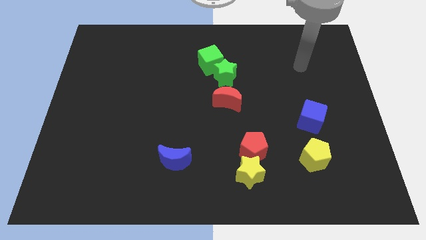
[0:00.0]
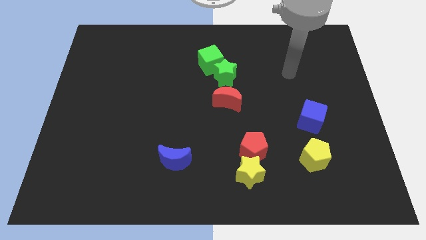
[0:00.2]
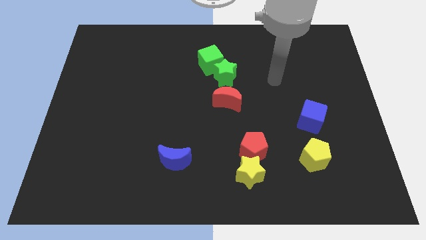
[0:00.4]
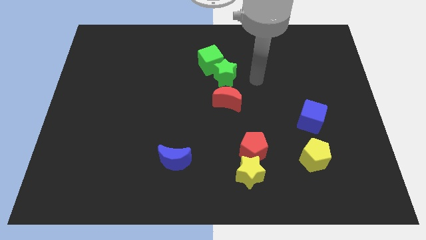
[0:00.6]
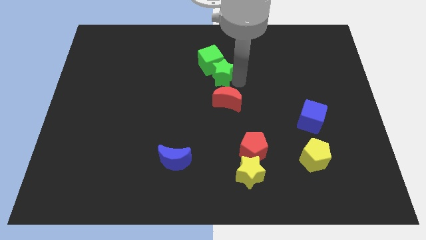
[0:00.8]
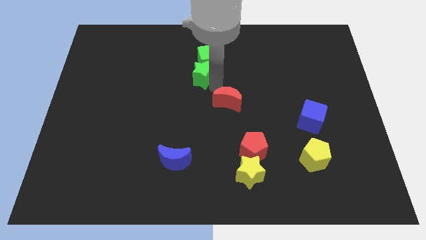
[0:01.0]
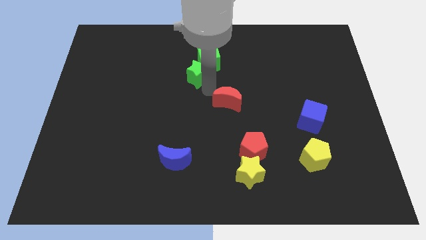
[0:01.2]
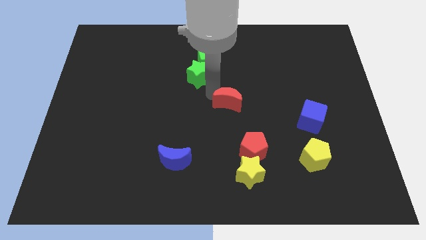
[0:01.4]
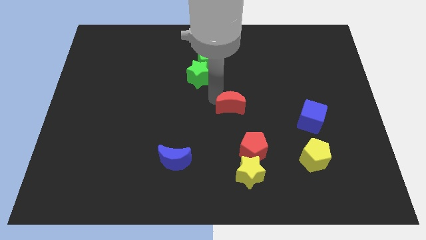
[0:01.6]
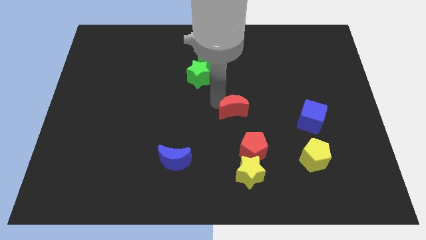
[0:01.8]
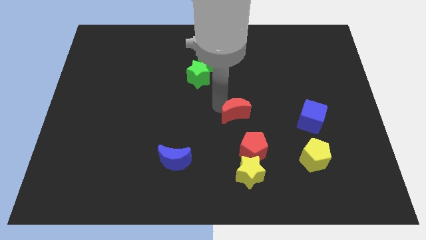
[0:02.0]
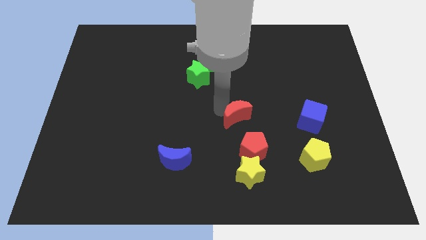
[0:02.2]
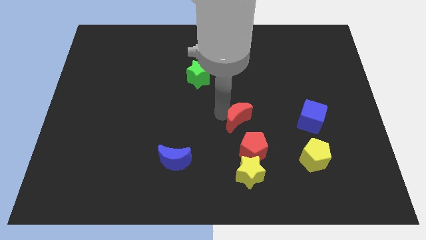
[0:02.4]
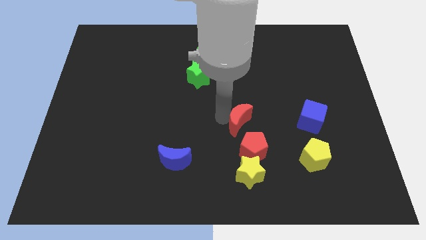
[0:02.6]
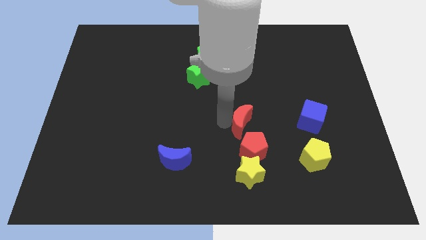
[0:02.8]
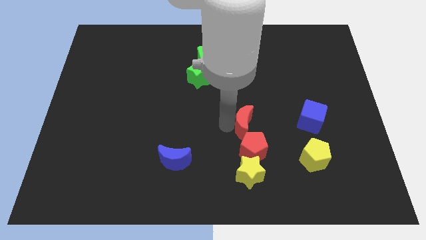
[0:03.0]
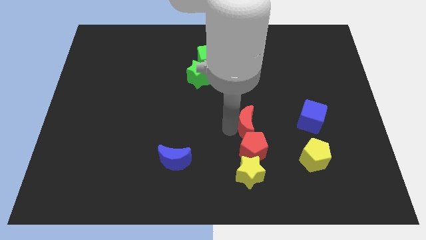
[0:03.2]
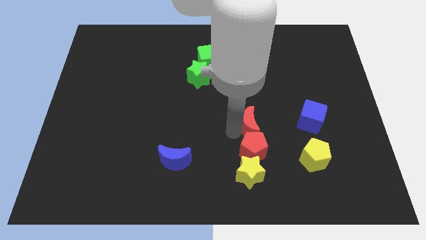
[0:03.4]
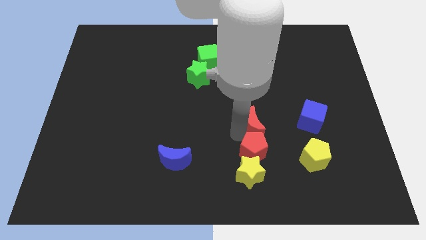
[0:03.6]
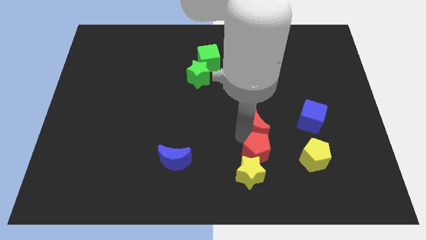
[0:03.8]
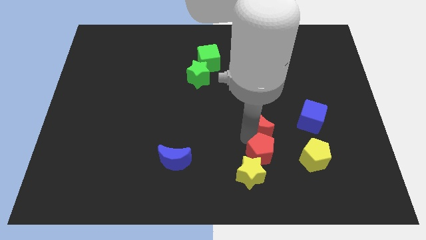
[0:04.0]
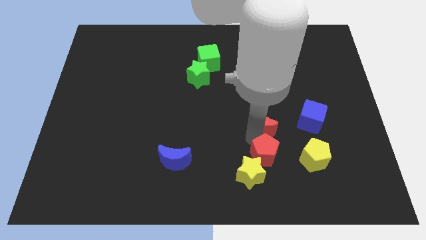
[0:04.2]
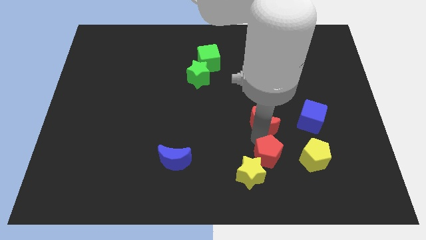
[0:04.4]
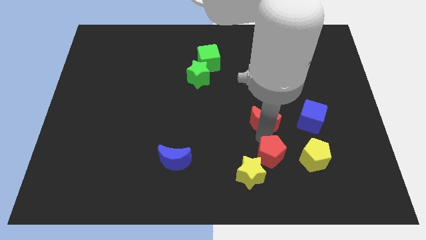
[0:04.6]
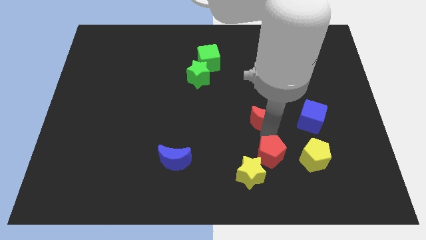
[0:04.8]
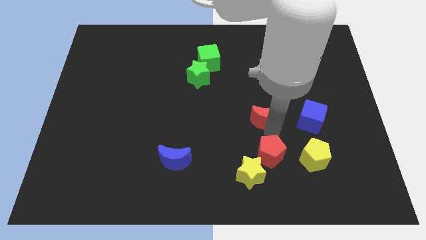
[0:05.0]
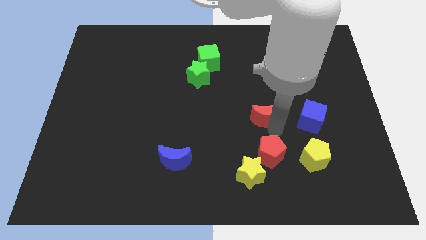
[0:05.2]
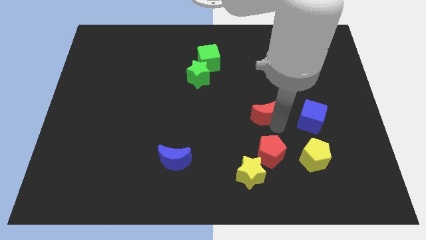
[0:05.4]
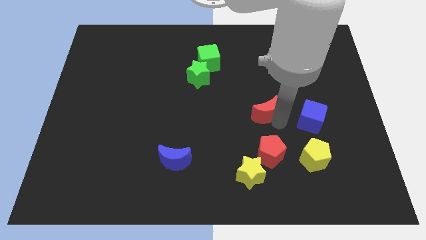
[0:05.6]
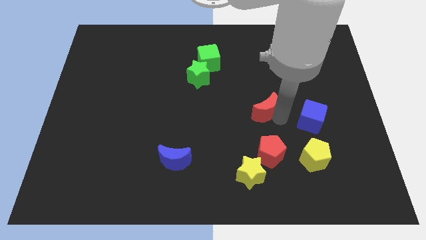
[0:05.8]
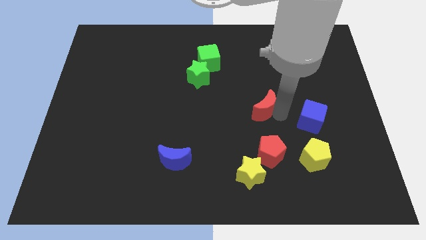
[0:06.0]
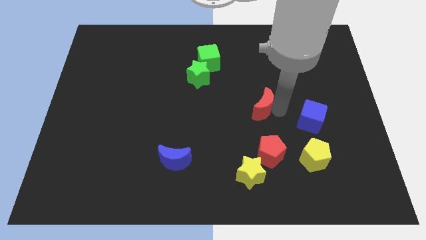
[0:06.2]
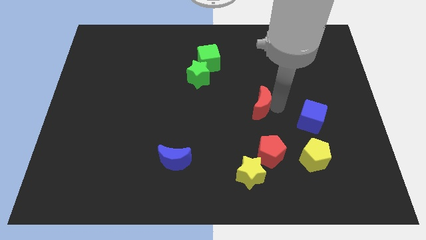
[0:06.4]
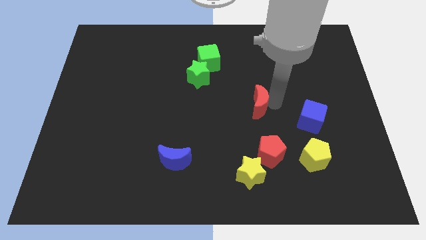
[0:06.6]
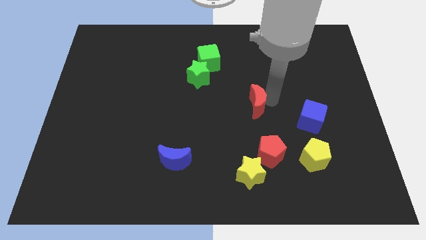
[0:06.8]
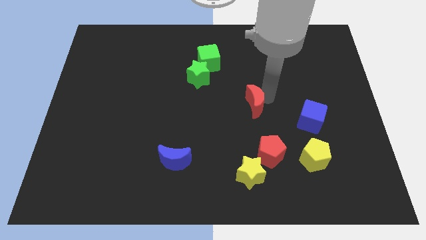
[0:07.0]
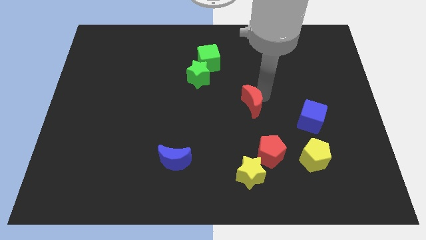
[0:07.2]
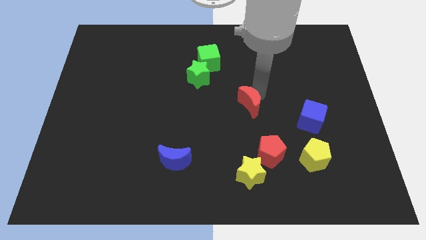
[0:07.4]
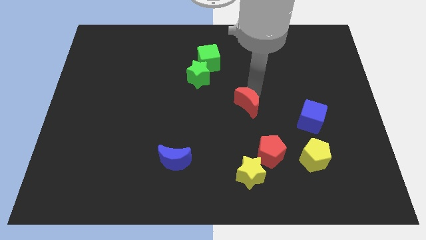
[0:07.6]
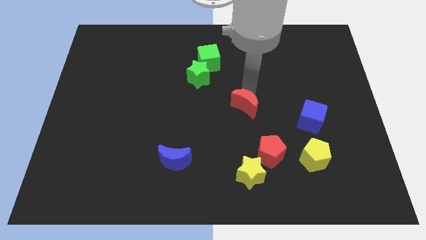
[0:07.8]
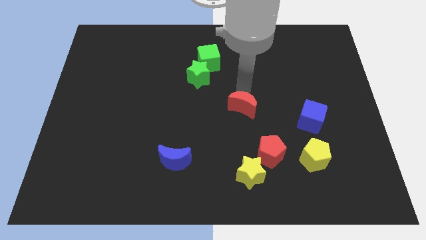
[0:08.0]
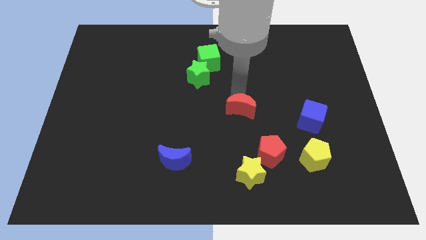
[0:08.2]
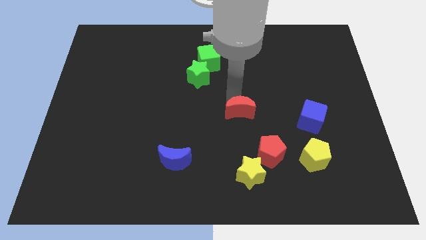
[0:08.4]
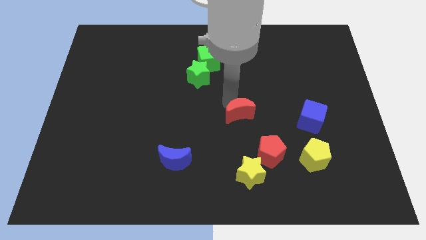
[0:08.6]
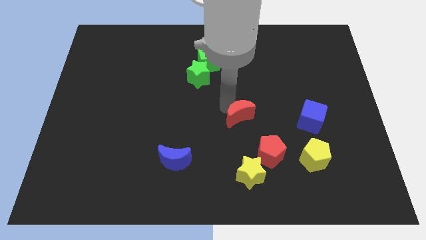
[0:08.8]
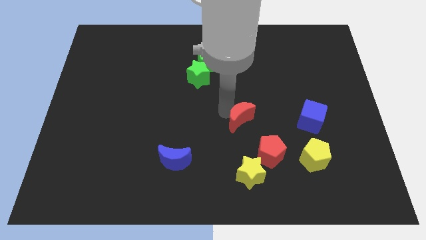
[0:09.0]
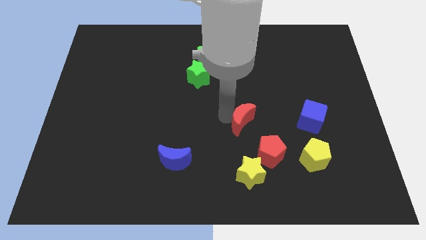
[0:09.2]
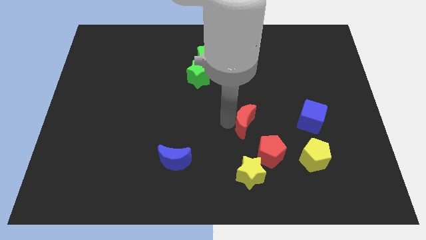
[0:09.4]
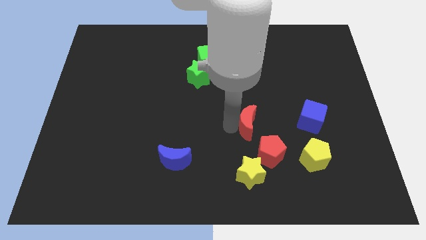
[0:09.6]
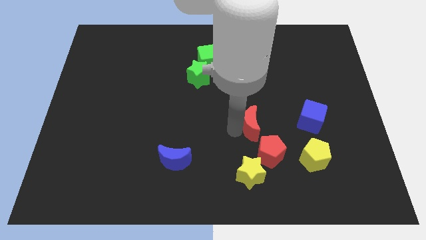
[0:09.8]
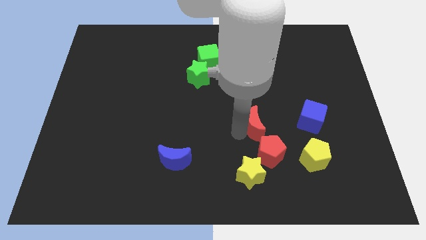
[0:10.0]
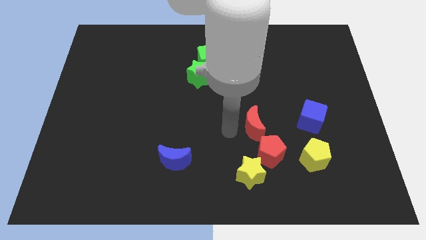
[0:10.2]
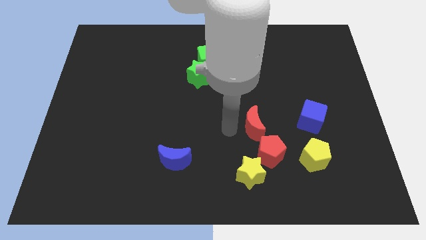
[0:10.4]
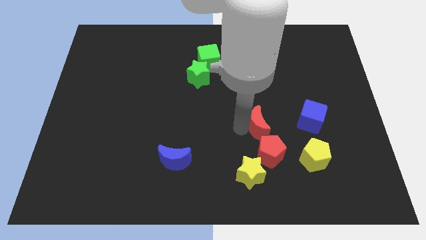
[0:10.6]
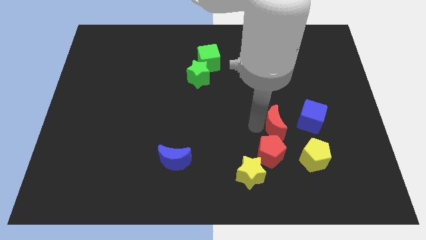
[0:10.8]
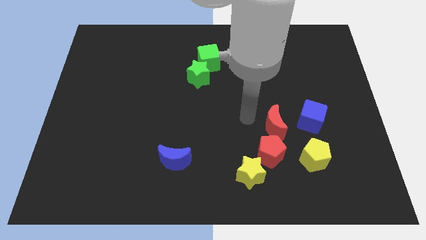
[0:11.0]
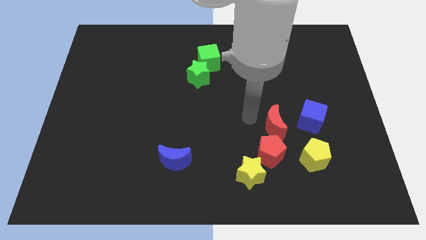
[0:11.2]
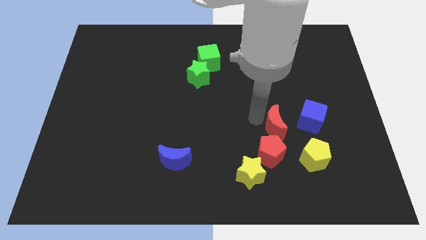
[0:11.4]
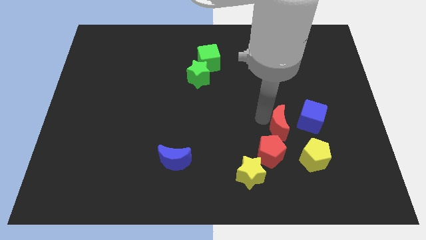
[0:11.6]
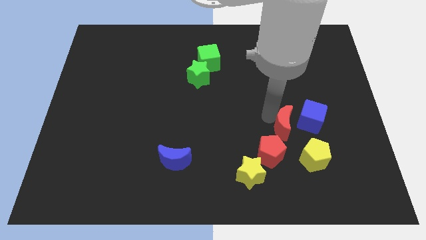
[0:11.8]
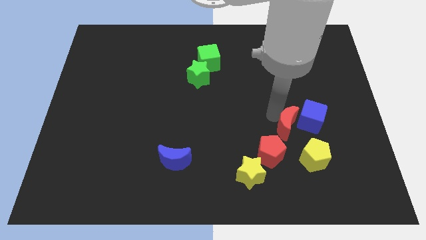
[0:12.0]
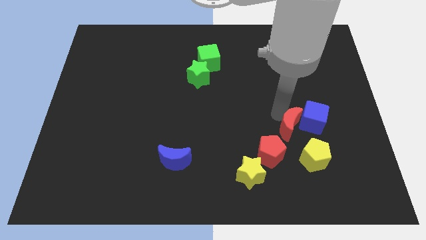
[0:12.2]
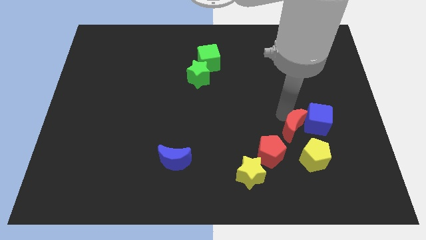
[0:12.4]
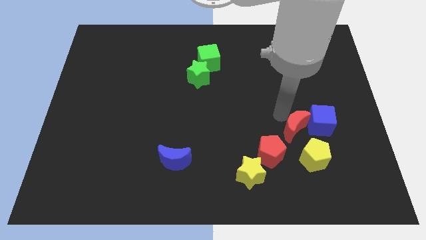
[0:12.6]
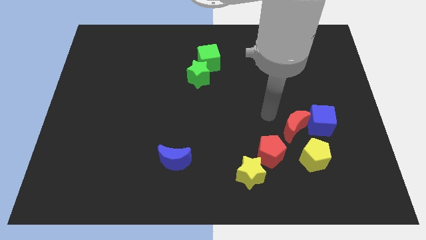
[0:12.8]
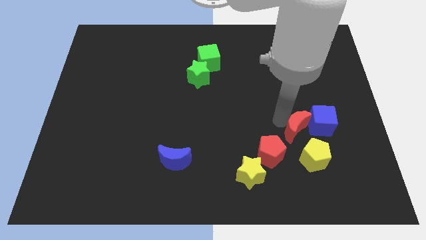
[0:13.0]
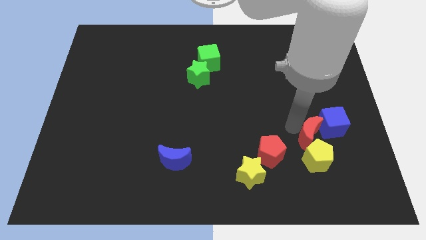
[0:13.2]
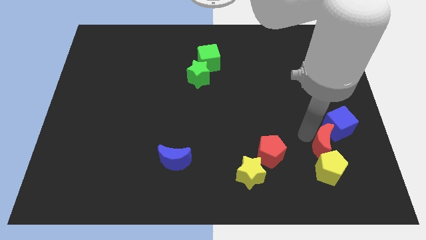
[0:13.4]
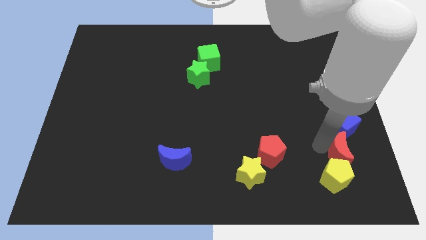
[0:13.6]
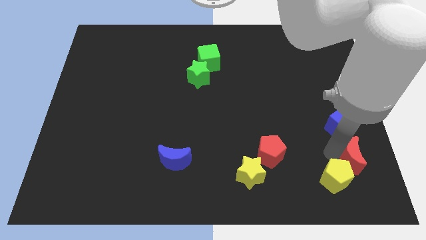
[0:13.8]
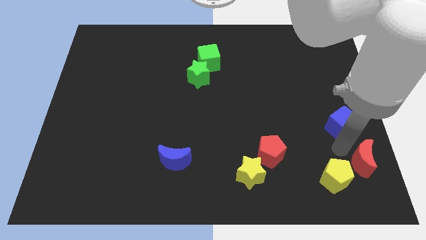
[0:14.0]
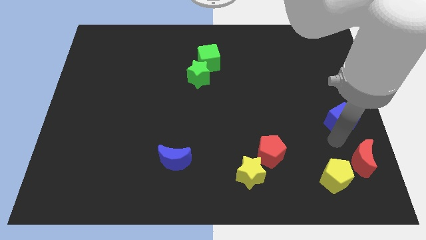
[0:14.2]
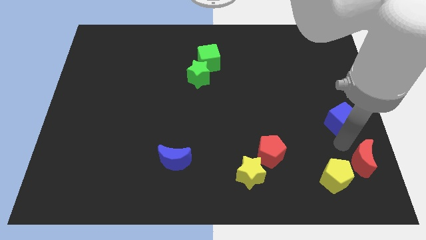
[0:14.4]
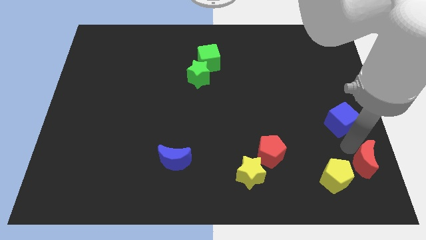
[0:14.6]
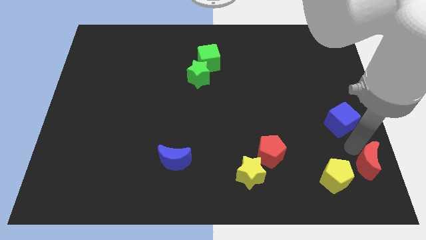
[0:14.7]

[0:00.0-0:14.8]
put the red moon to the lower right corner
